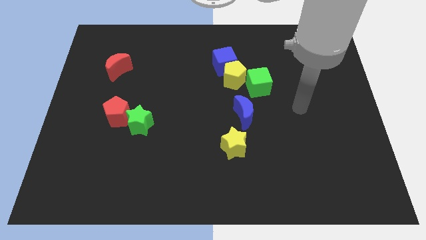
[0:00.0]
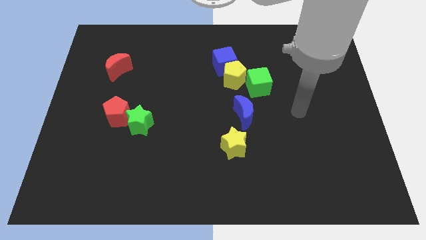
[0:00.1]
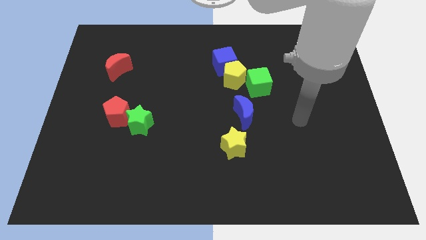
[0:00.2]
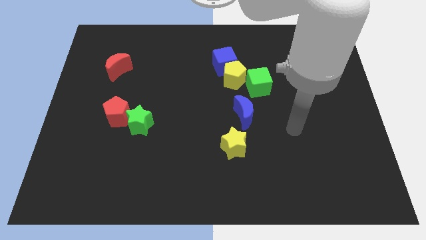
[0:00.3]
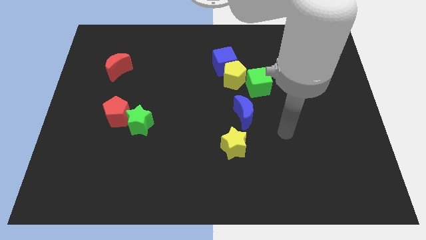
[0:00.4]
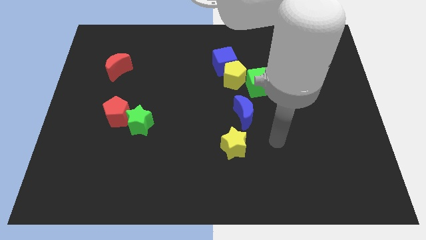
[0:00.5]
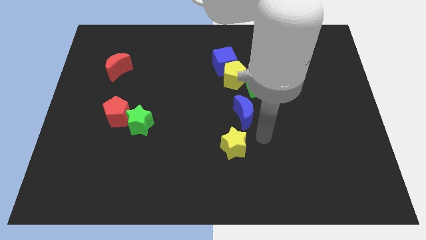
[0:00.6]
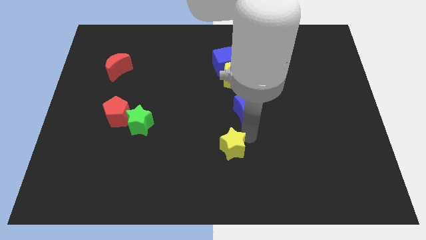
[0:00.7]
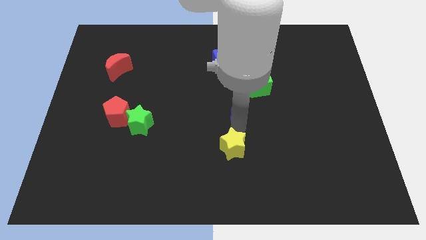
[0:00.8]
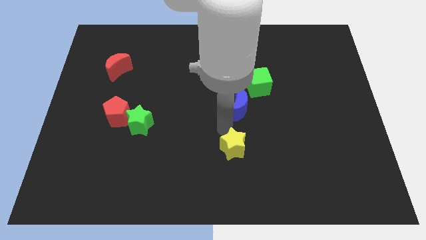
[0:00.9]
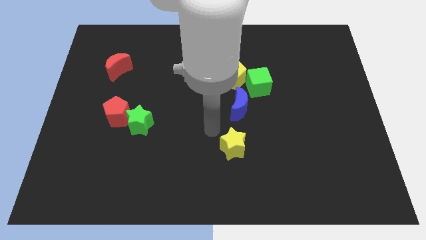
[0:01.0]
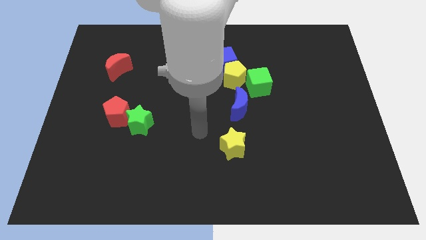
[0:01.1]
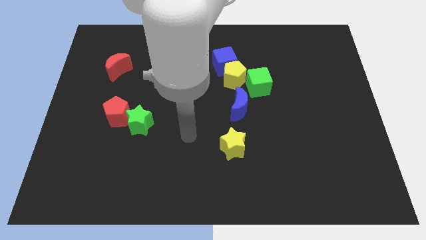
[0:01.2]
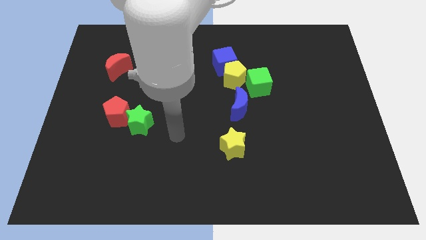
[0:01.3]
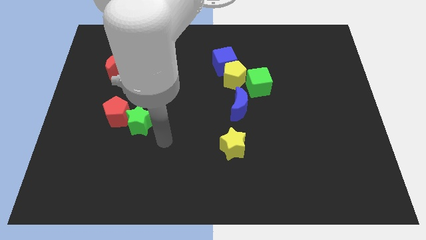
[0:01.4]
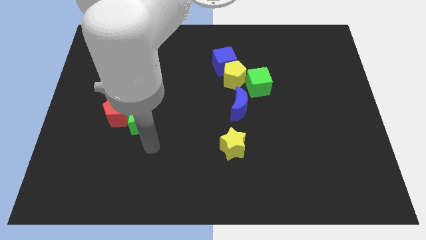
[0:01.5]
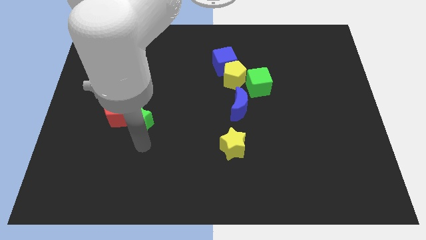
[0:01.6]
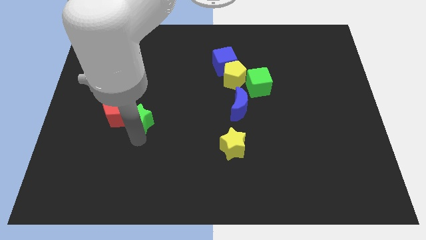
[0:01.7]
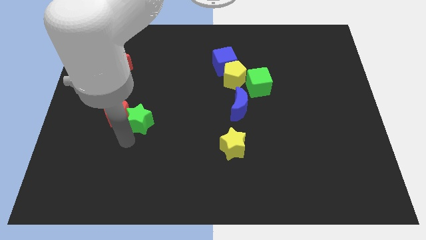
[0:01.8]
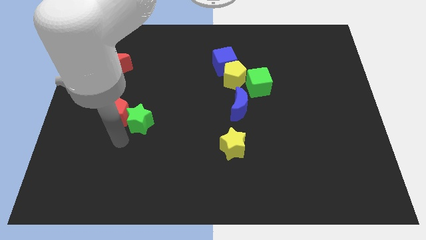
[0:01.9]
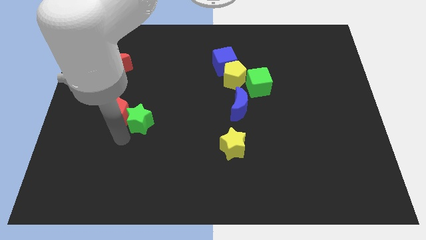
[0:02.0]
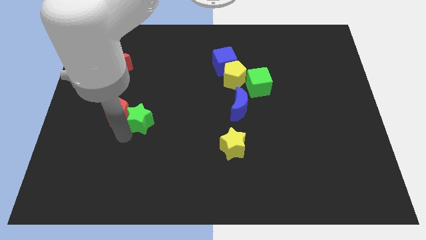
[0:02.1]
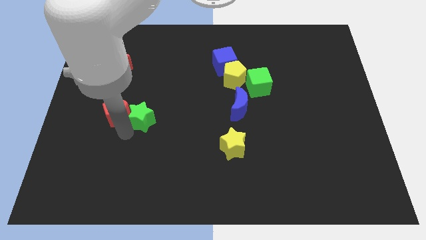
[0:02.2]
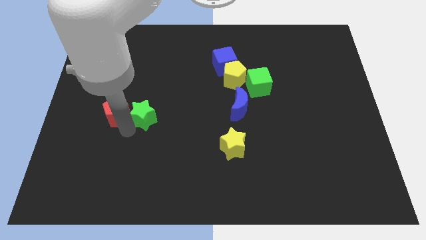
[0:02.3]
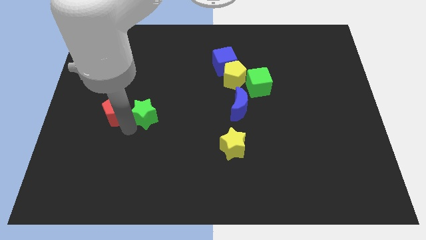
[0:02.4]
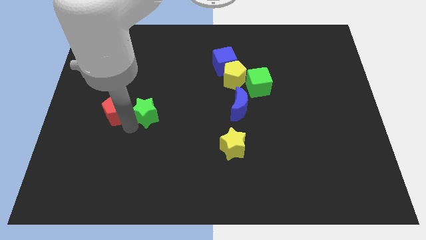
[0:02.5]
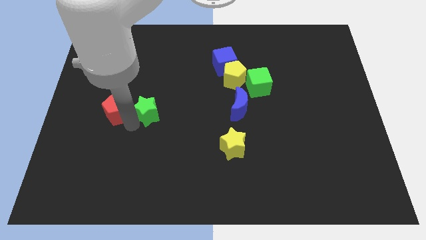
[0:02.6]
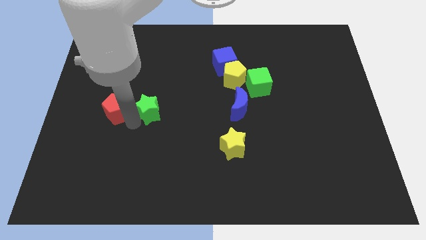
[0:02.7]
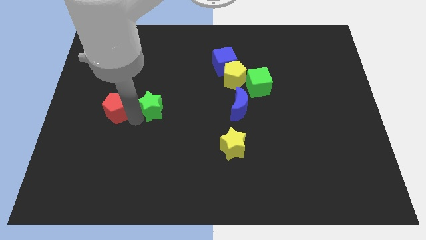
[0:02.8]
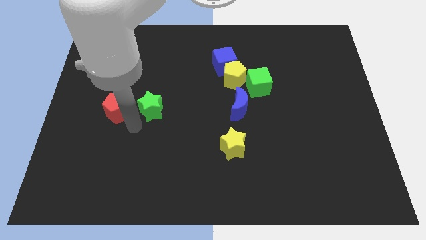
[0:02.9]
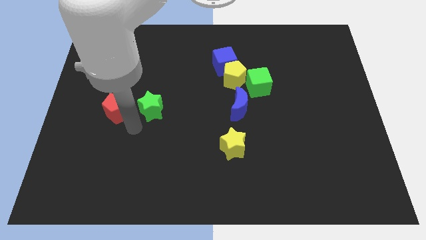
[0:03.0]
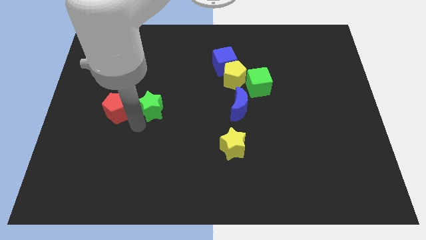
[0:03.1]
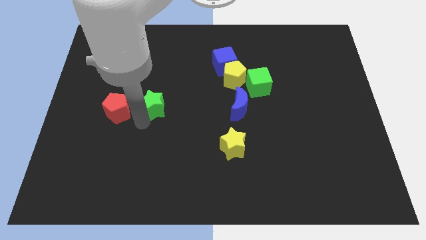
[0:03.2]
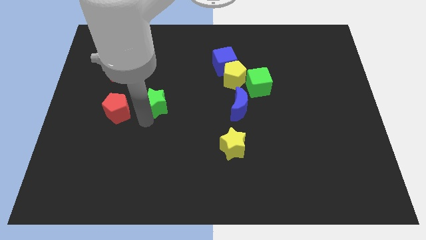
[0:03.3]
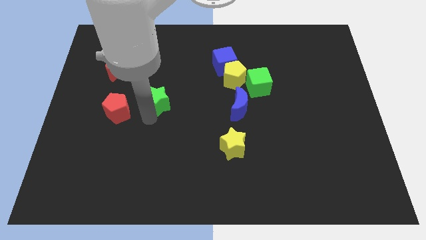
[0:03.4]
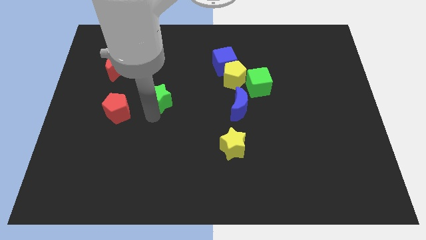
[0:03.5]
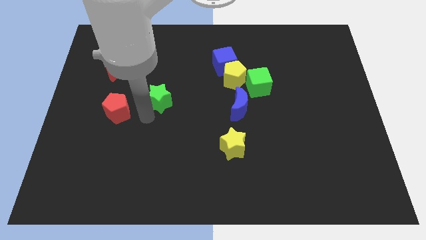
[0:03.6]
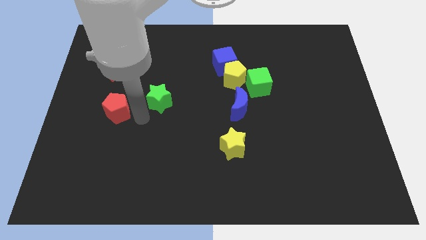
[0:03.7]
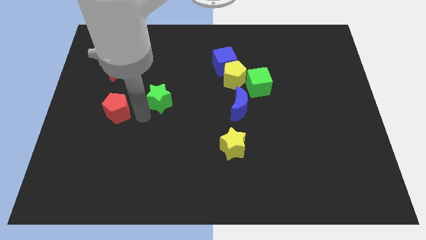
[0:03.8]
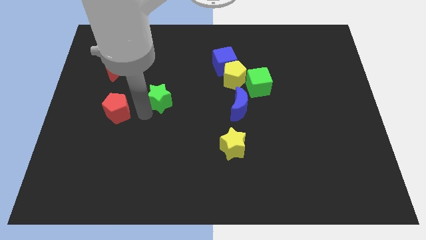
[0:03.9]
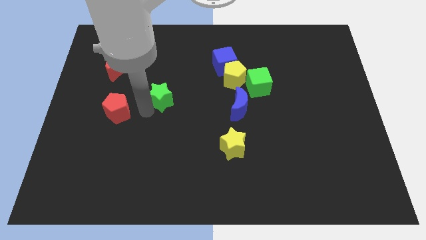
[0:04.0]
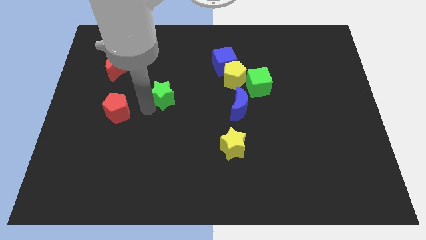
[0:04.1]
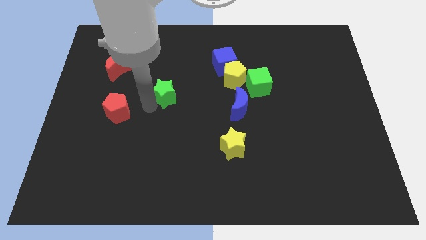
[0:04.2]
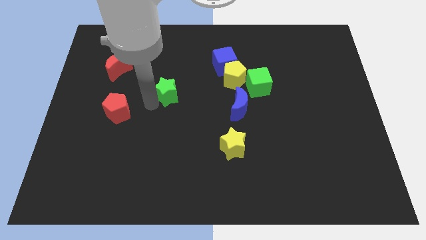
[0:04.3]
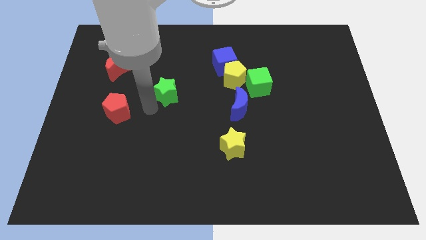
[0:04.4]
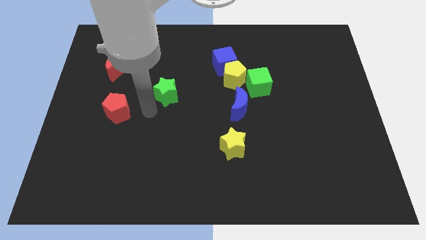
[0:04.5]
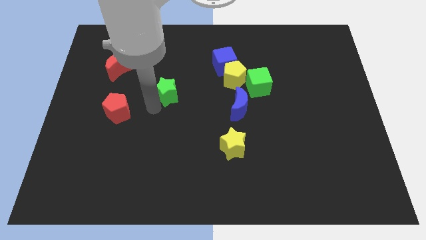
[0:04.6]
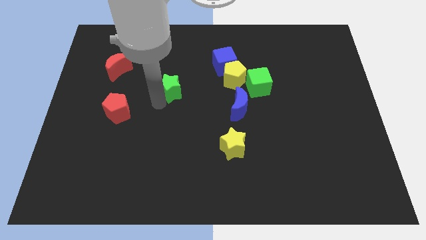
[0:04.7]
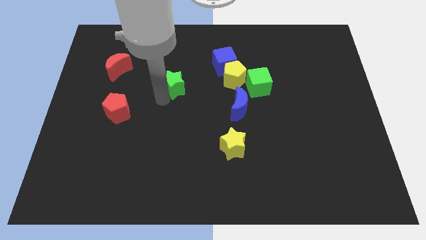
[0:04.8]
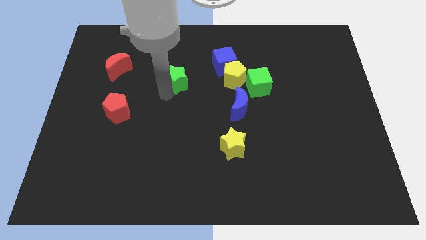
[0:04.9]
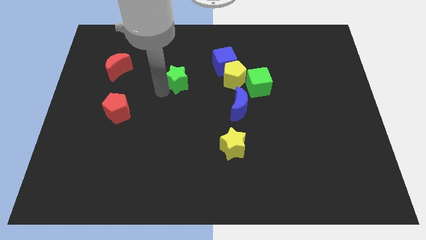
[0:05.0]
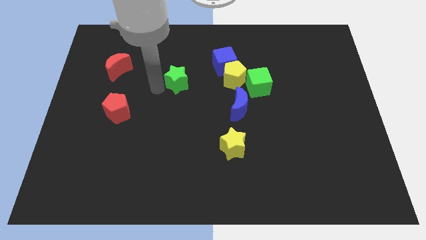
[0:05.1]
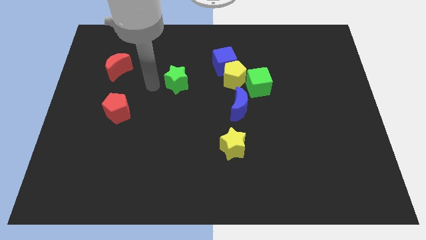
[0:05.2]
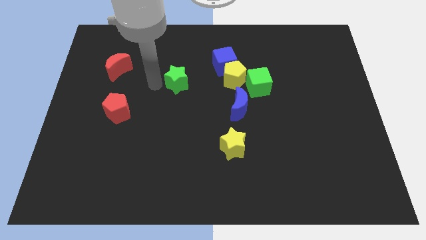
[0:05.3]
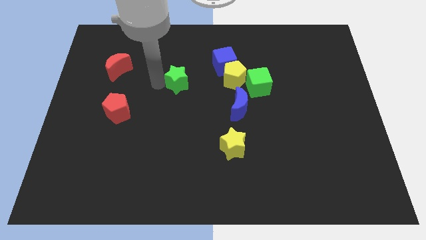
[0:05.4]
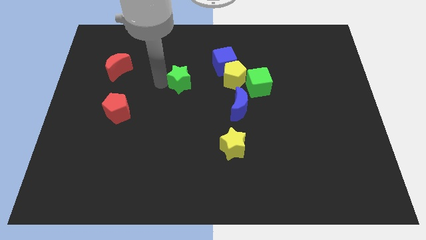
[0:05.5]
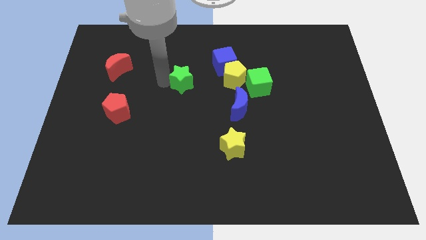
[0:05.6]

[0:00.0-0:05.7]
slide the green star diagonally down and to the left of the blue cube

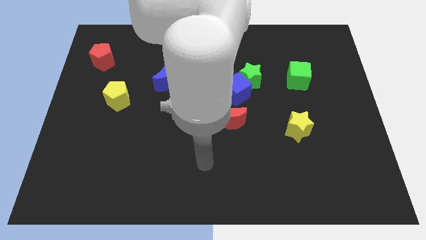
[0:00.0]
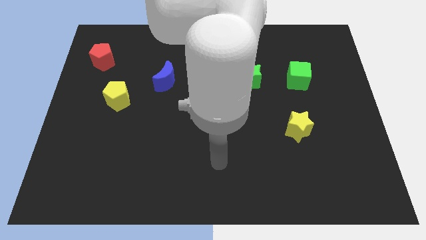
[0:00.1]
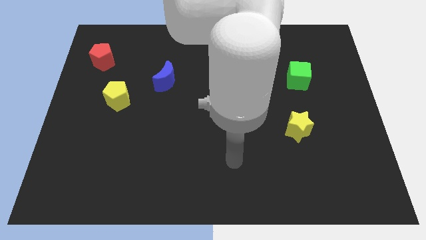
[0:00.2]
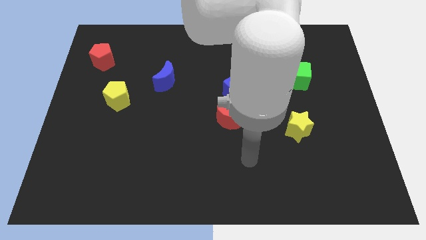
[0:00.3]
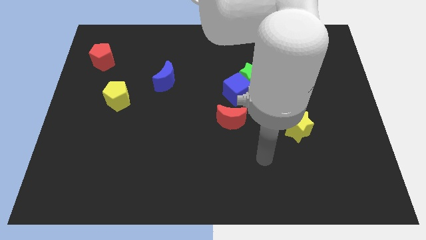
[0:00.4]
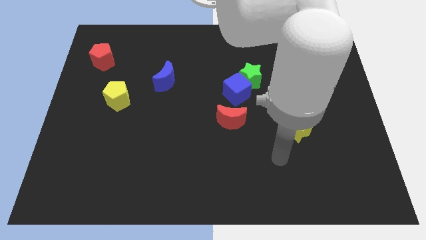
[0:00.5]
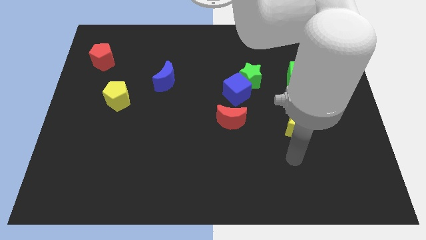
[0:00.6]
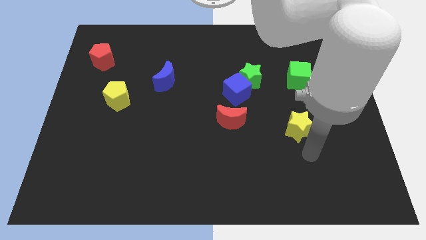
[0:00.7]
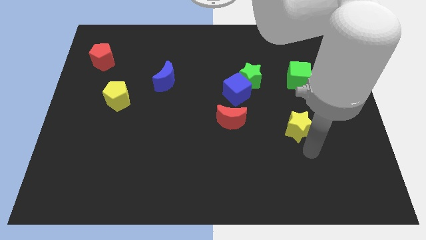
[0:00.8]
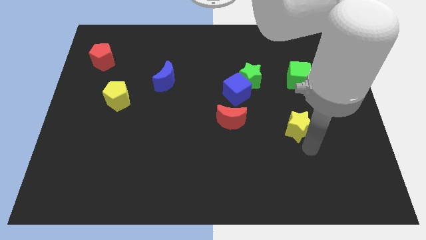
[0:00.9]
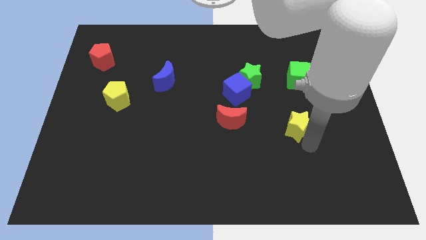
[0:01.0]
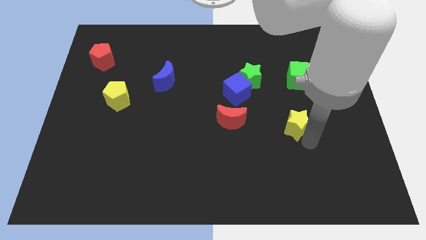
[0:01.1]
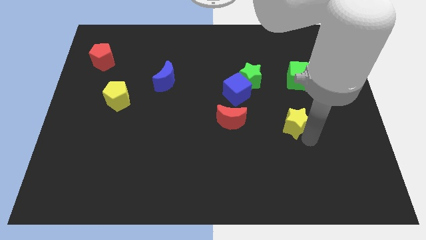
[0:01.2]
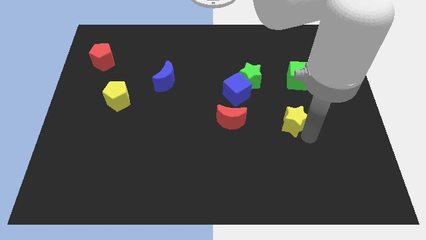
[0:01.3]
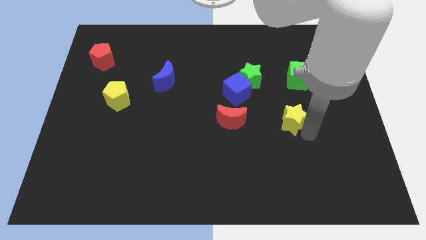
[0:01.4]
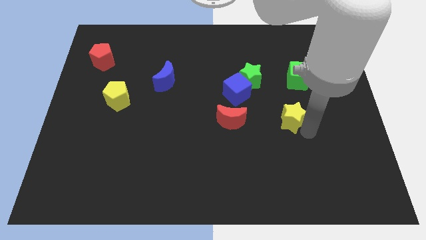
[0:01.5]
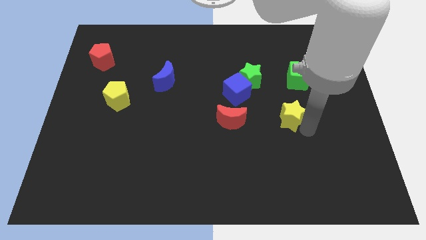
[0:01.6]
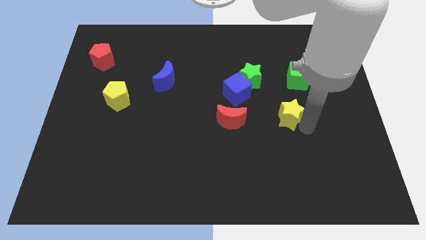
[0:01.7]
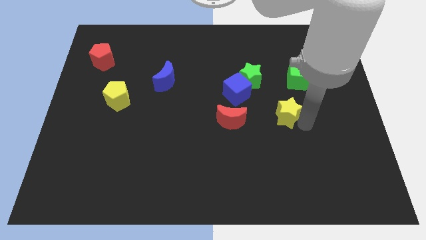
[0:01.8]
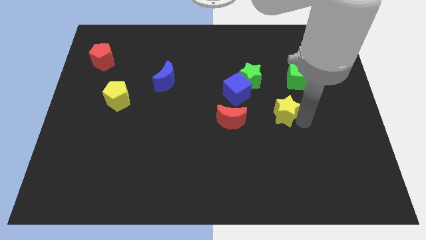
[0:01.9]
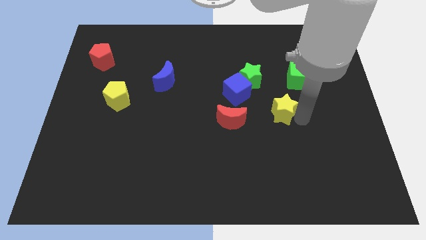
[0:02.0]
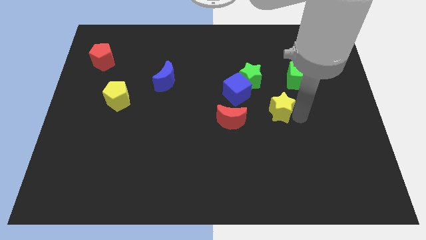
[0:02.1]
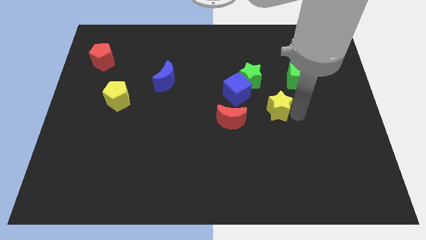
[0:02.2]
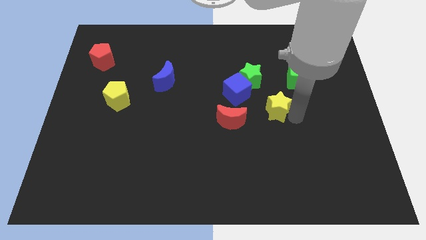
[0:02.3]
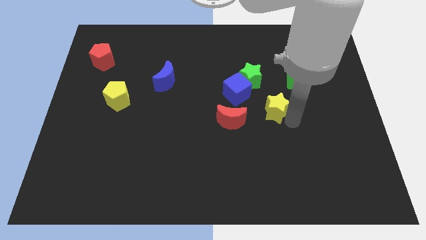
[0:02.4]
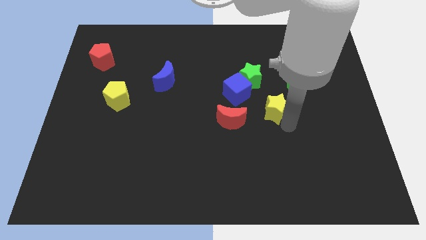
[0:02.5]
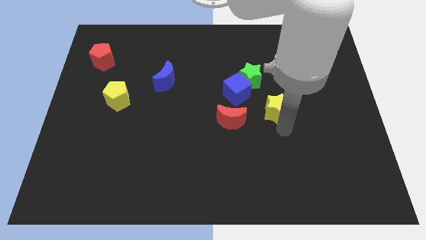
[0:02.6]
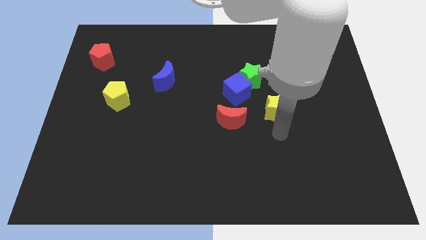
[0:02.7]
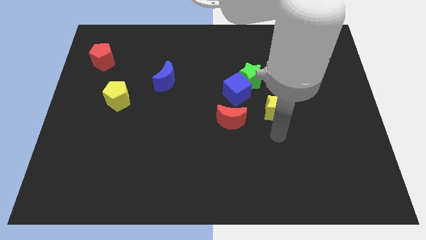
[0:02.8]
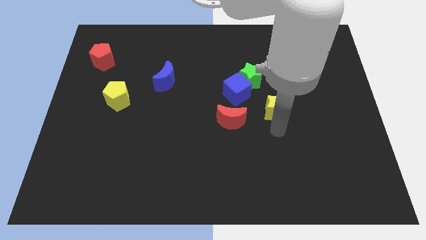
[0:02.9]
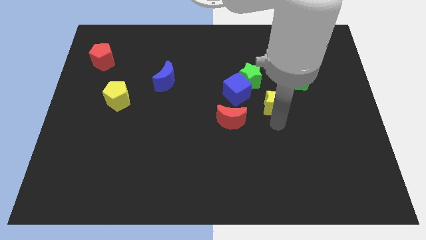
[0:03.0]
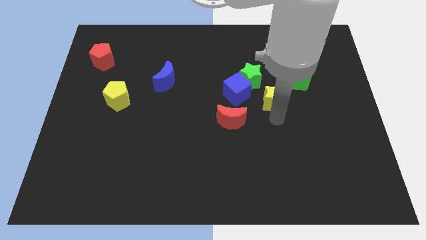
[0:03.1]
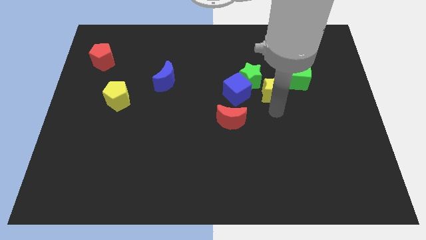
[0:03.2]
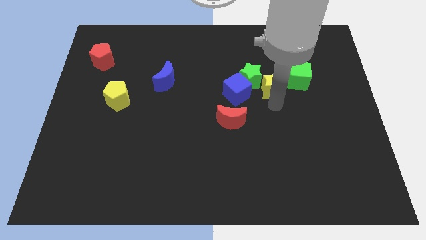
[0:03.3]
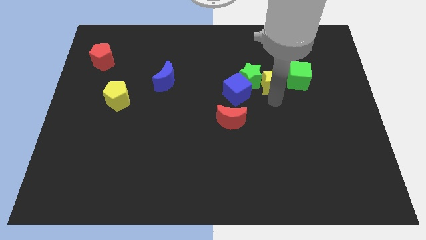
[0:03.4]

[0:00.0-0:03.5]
put the yellow star to the top right of the green star
